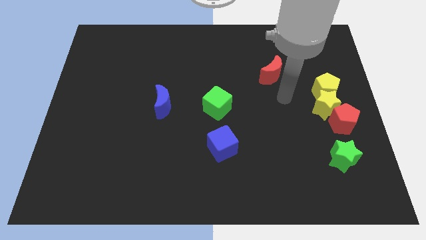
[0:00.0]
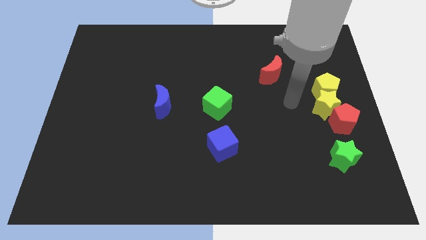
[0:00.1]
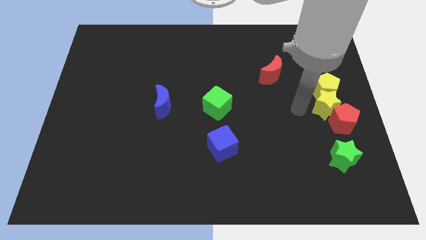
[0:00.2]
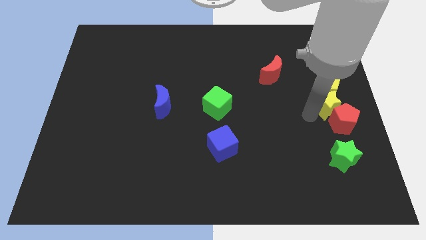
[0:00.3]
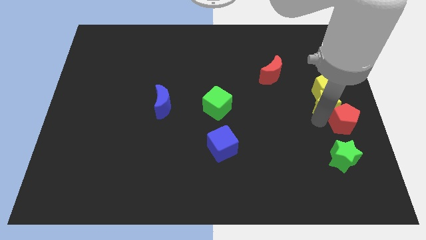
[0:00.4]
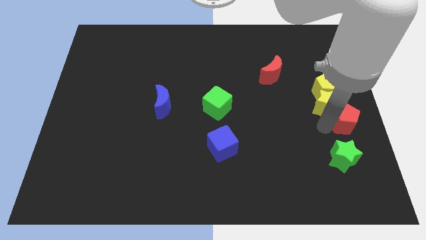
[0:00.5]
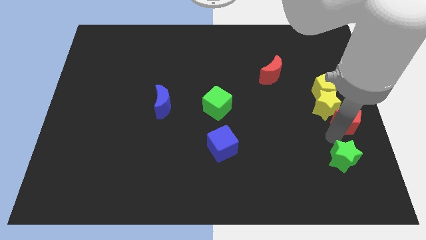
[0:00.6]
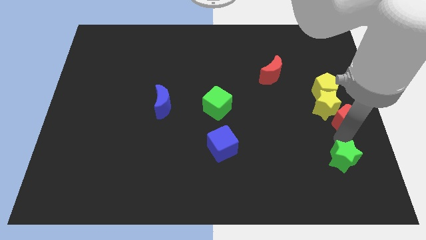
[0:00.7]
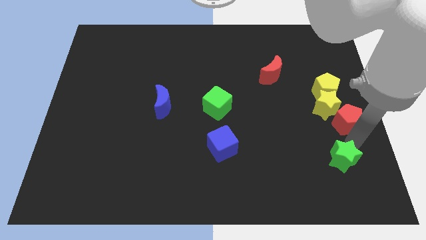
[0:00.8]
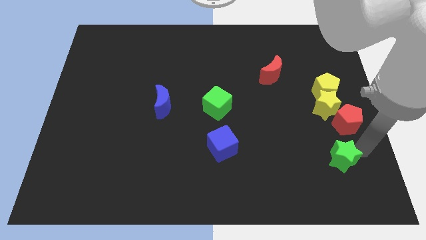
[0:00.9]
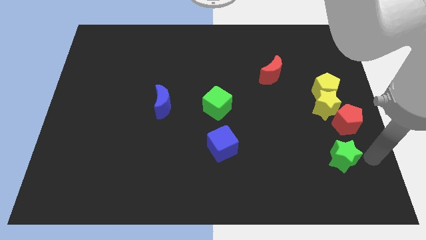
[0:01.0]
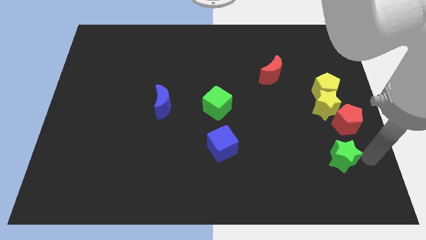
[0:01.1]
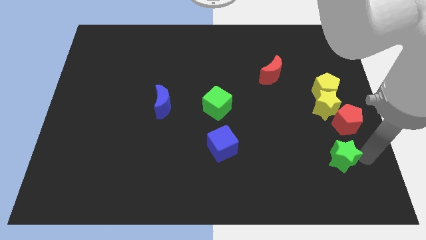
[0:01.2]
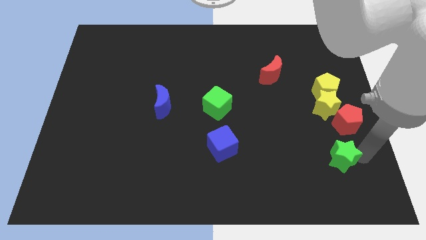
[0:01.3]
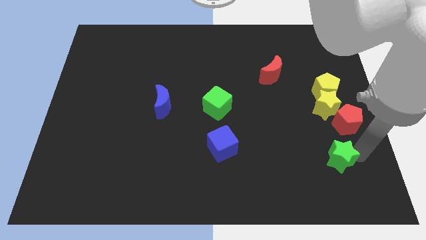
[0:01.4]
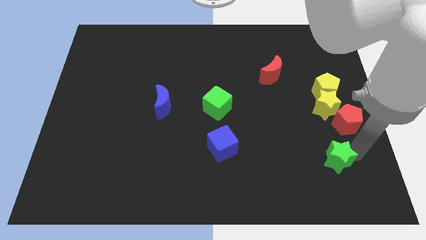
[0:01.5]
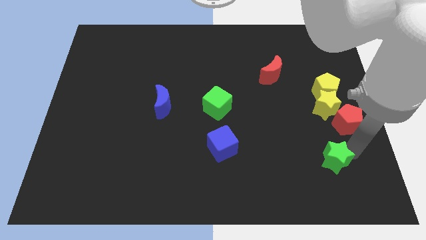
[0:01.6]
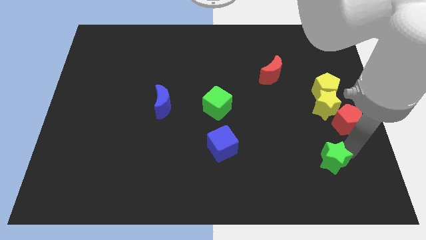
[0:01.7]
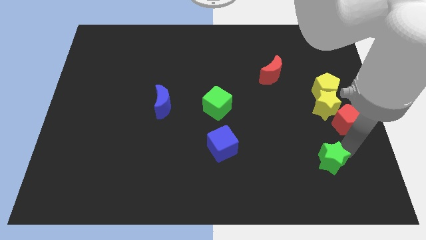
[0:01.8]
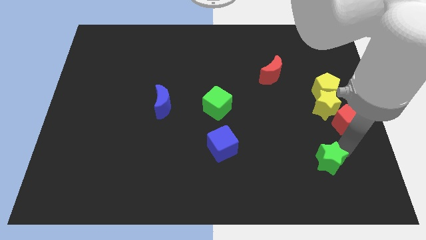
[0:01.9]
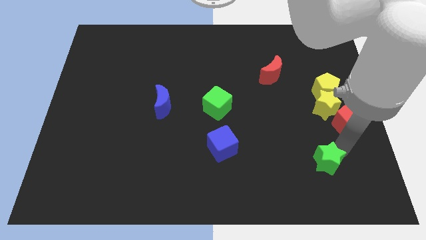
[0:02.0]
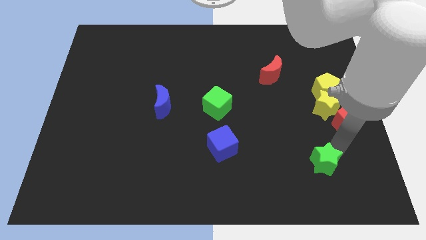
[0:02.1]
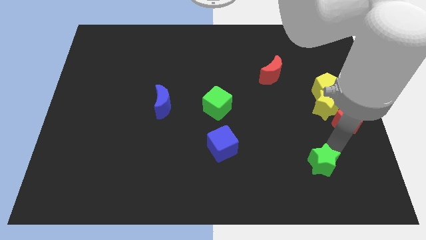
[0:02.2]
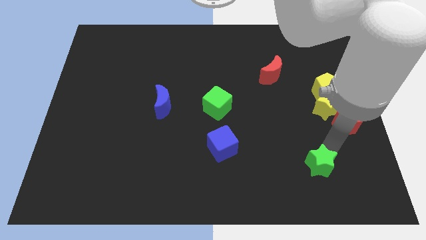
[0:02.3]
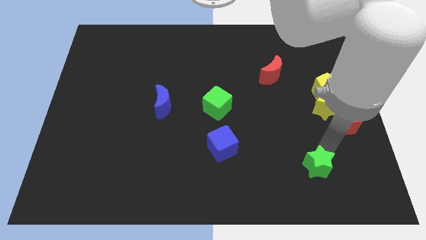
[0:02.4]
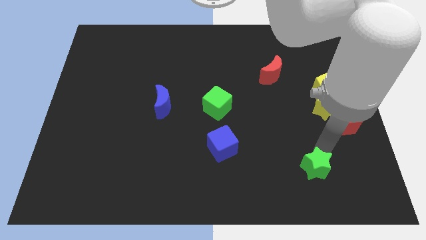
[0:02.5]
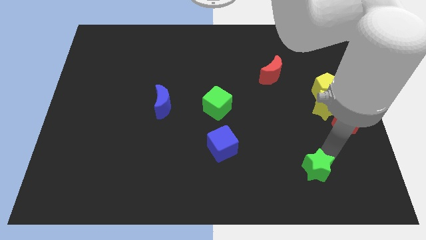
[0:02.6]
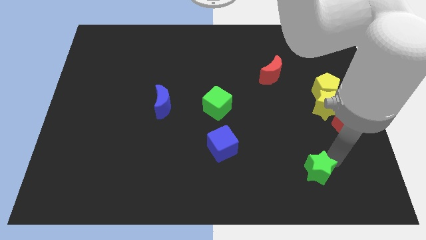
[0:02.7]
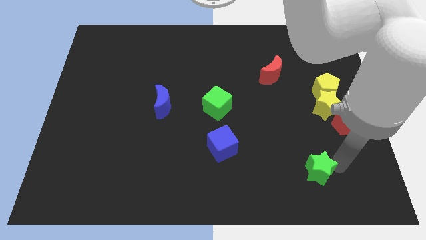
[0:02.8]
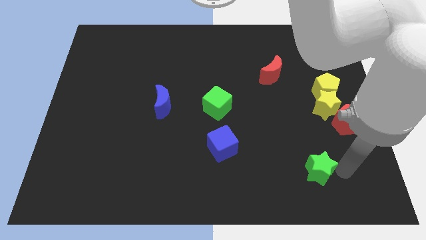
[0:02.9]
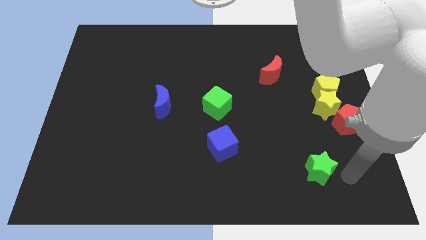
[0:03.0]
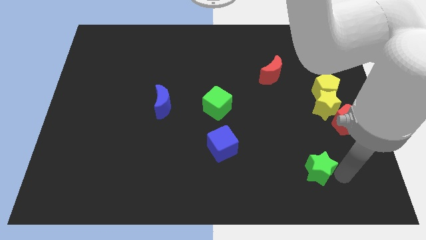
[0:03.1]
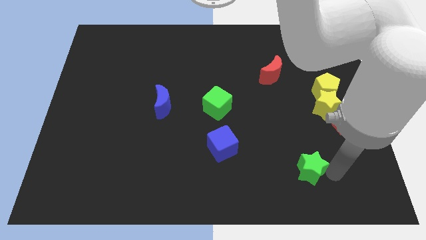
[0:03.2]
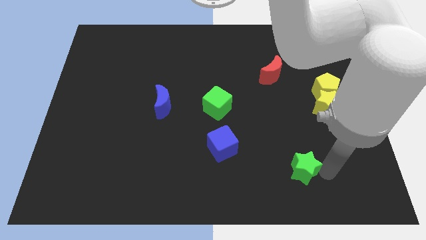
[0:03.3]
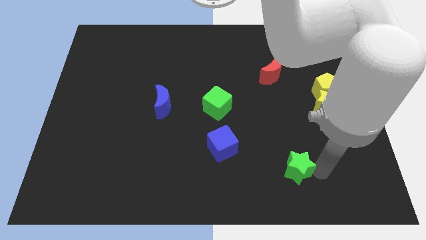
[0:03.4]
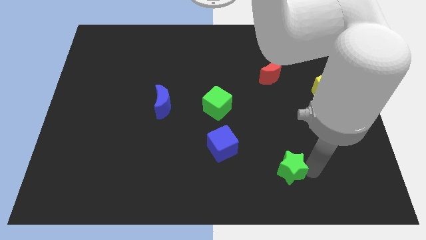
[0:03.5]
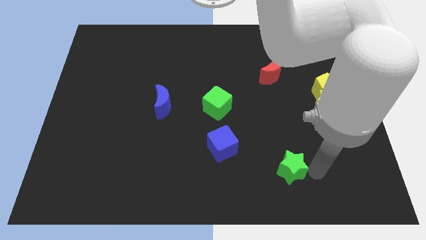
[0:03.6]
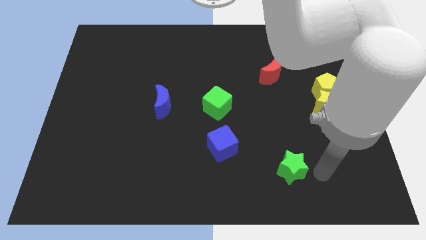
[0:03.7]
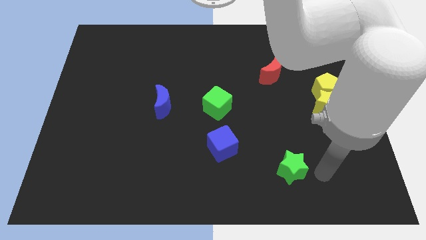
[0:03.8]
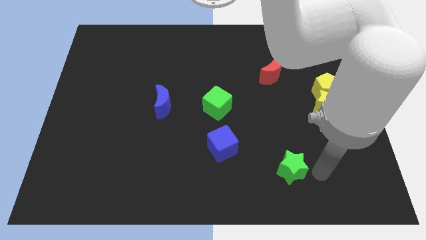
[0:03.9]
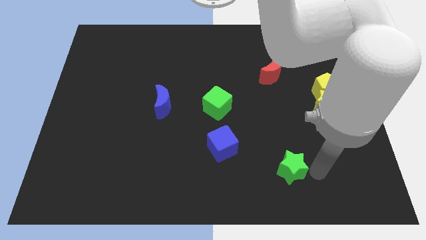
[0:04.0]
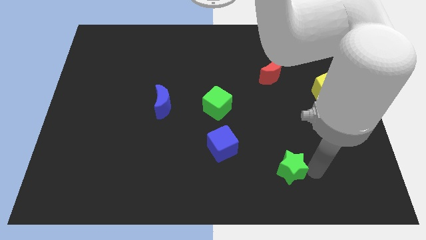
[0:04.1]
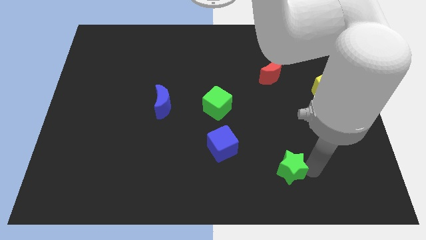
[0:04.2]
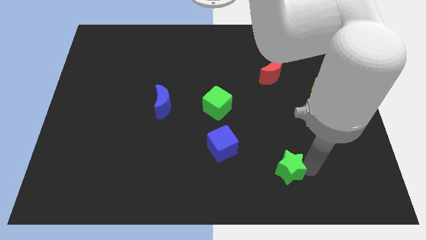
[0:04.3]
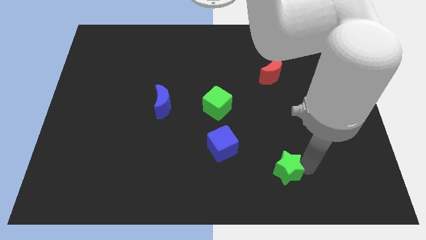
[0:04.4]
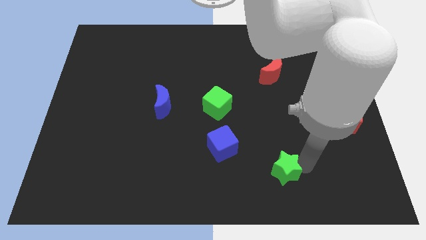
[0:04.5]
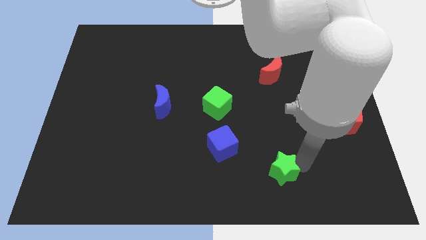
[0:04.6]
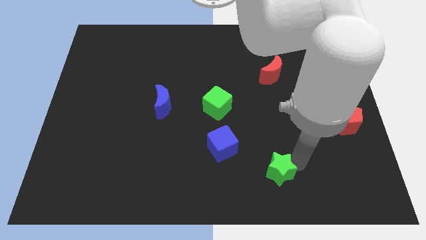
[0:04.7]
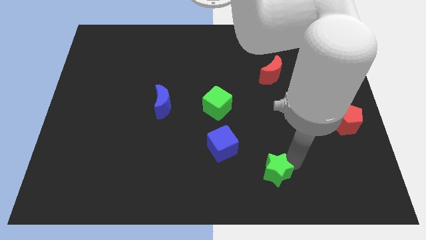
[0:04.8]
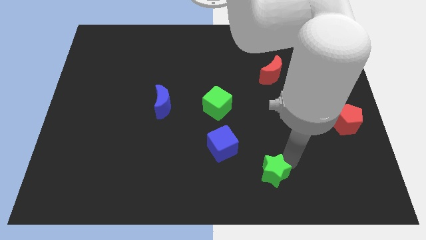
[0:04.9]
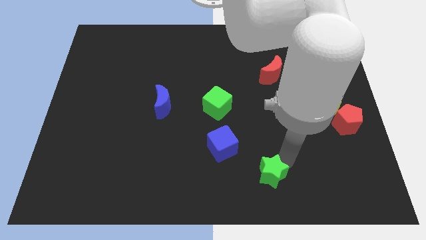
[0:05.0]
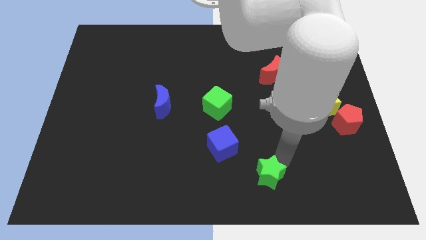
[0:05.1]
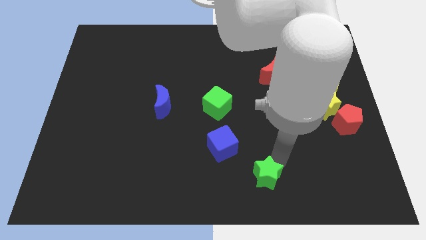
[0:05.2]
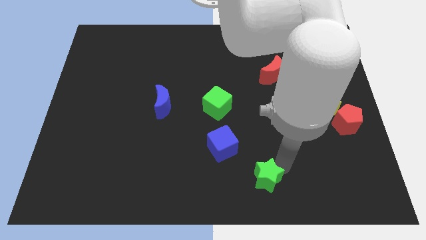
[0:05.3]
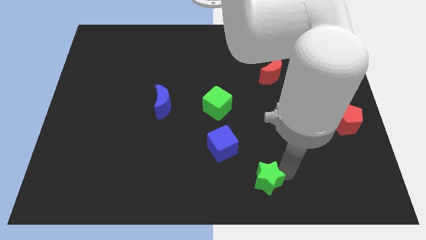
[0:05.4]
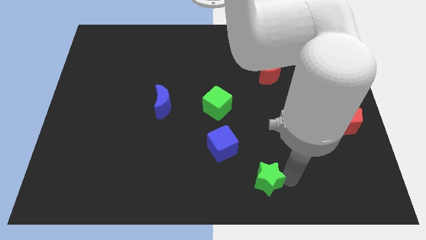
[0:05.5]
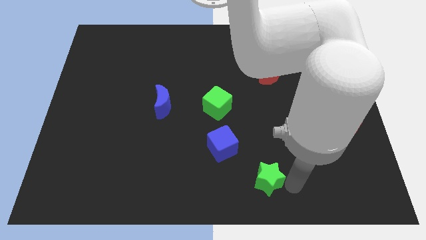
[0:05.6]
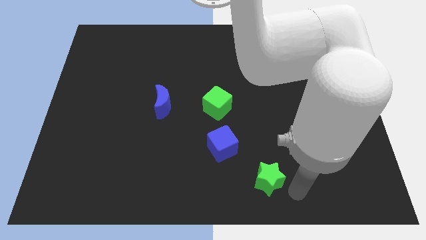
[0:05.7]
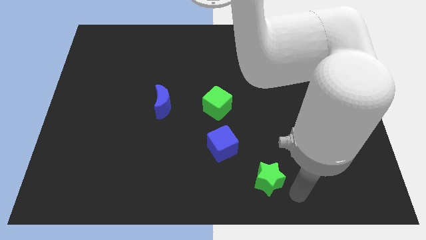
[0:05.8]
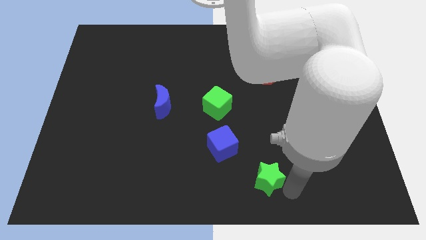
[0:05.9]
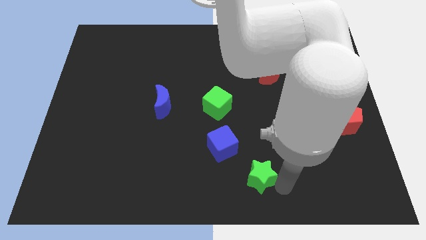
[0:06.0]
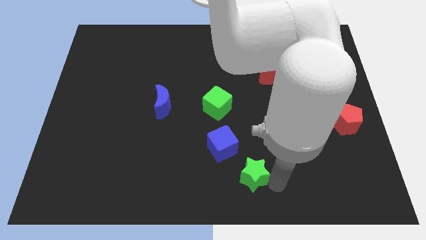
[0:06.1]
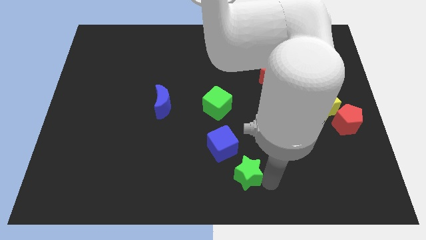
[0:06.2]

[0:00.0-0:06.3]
slide the green star left

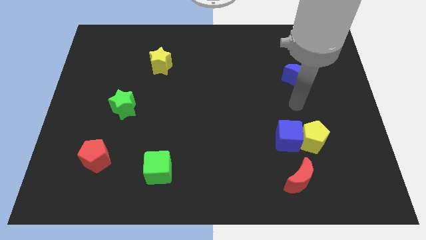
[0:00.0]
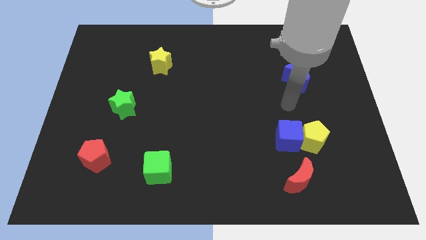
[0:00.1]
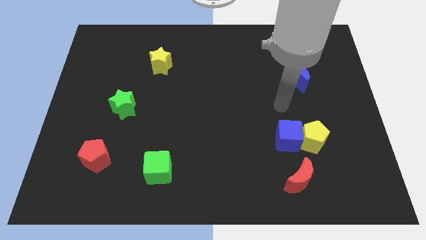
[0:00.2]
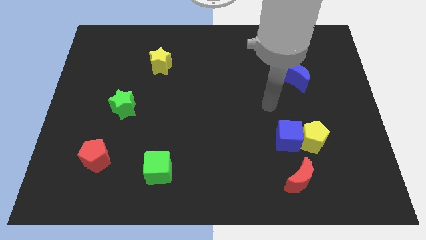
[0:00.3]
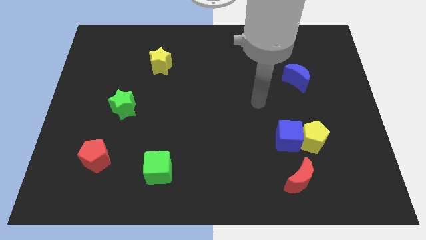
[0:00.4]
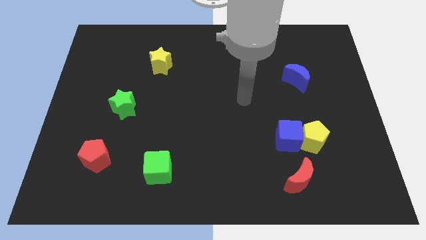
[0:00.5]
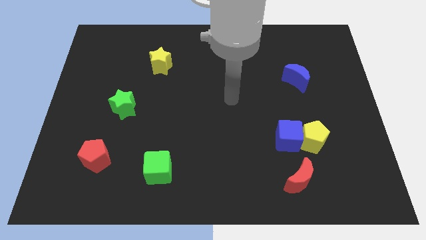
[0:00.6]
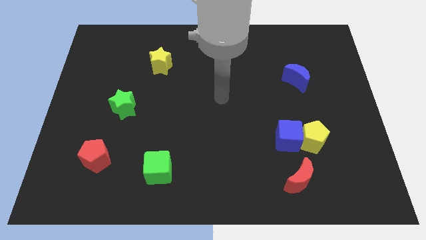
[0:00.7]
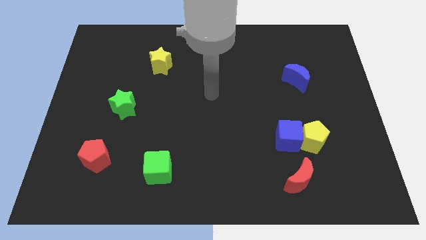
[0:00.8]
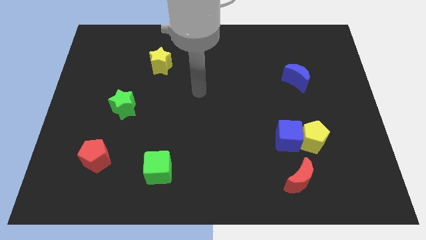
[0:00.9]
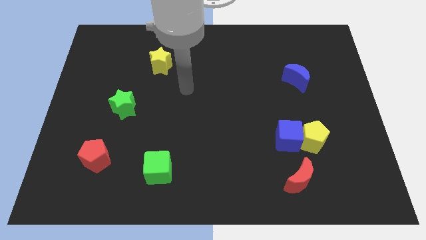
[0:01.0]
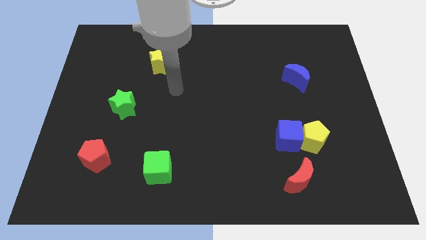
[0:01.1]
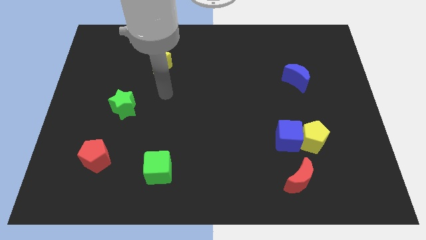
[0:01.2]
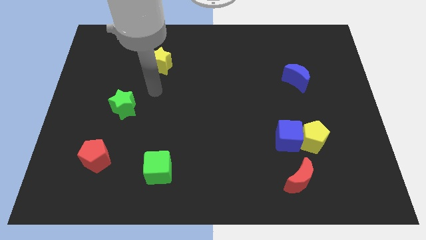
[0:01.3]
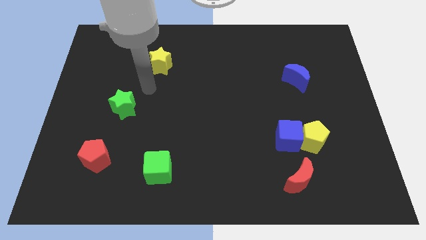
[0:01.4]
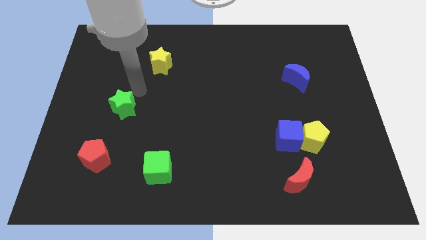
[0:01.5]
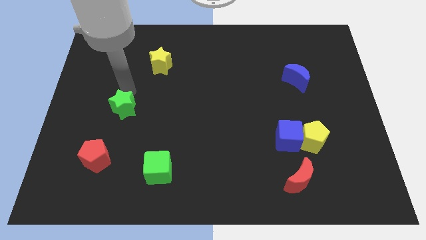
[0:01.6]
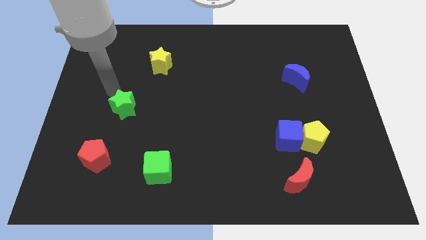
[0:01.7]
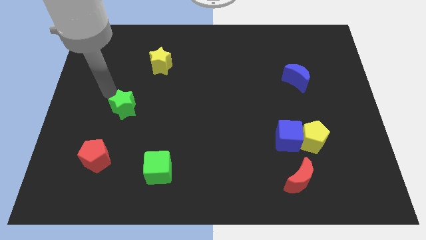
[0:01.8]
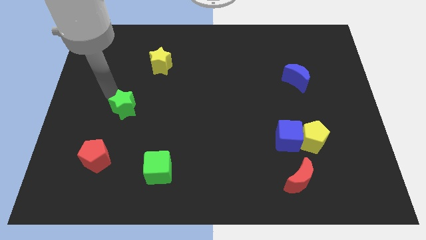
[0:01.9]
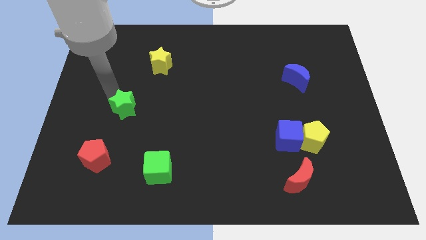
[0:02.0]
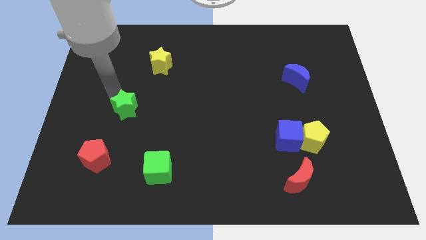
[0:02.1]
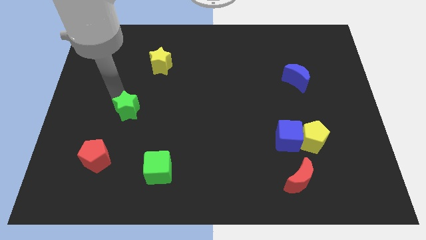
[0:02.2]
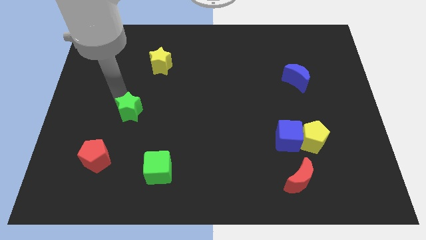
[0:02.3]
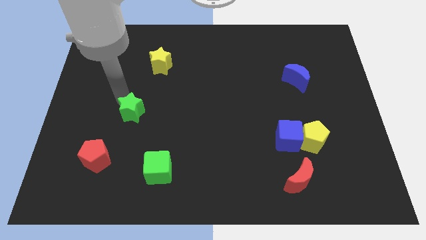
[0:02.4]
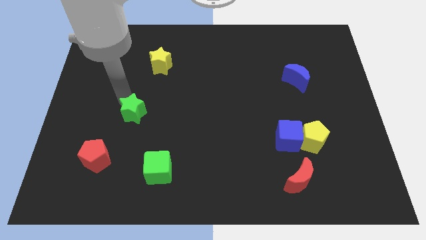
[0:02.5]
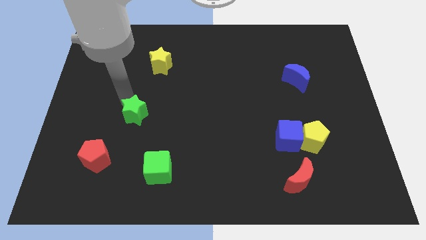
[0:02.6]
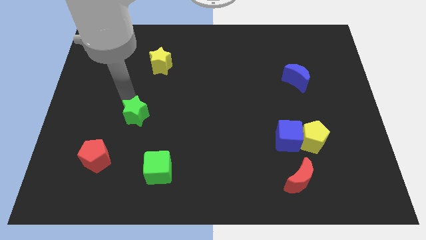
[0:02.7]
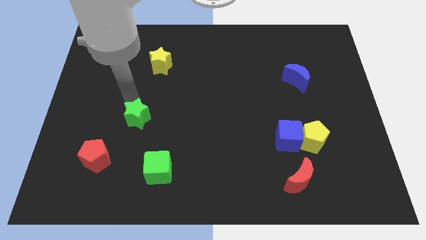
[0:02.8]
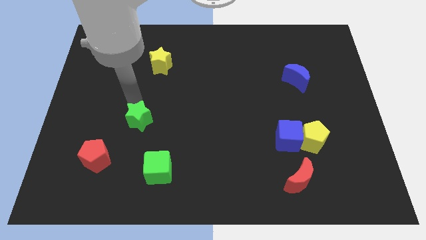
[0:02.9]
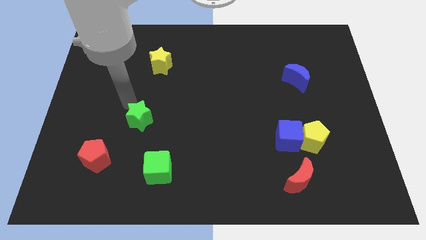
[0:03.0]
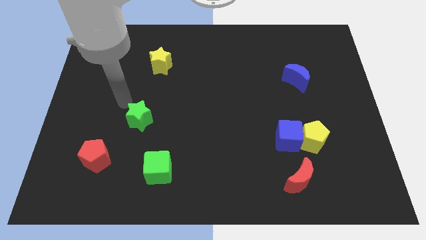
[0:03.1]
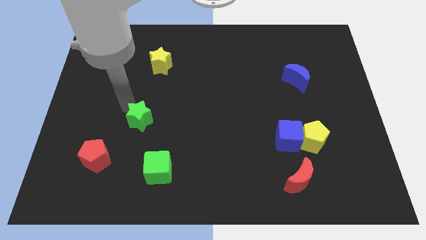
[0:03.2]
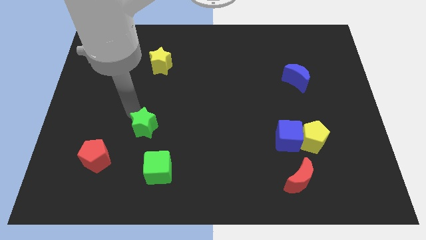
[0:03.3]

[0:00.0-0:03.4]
push the green star down and to the right diagonally a little bit
